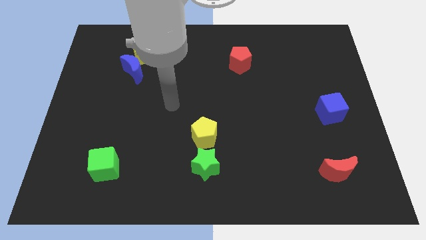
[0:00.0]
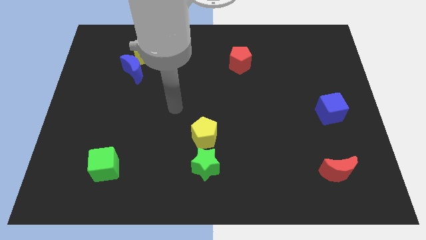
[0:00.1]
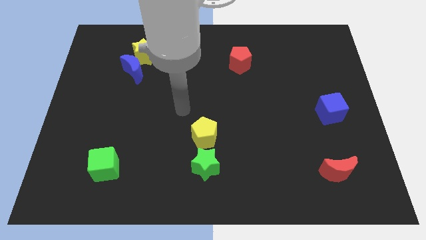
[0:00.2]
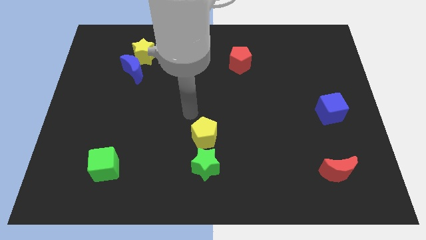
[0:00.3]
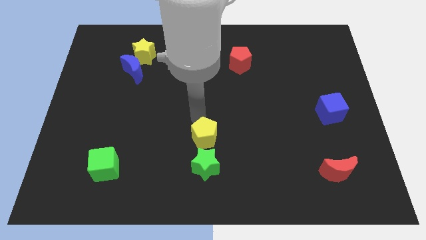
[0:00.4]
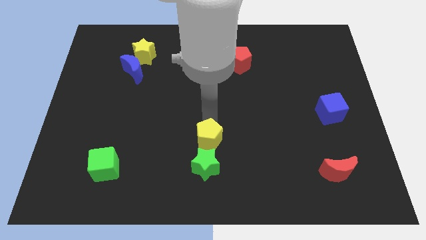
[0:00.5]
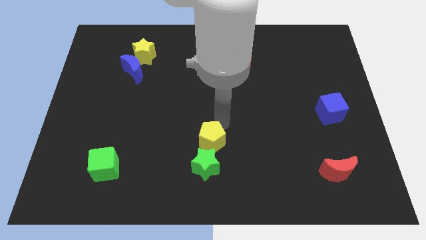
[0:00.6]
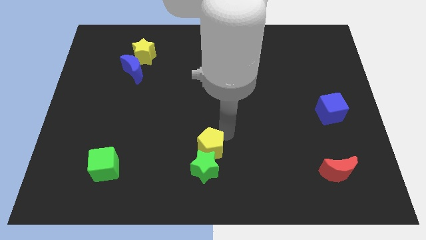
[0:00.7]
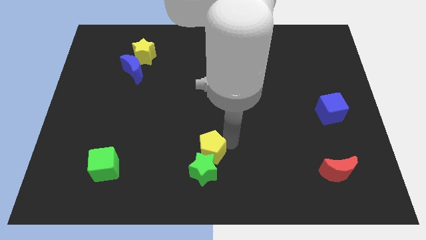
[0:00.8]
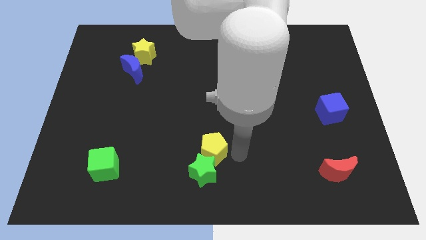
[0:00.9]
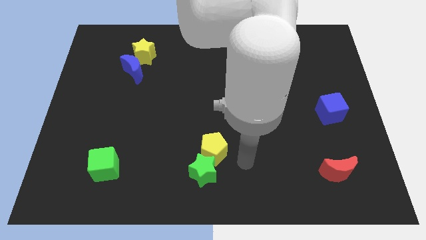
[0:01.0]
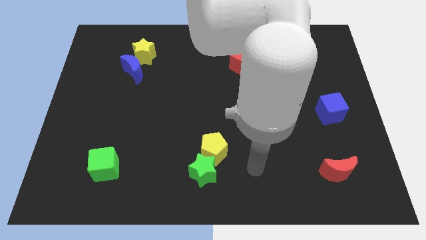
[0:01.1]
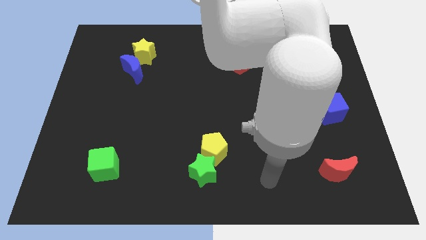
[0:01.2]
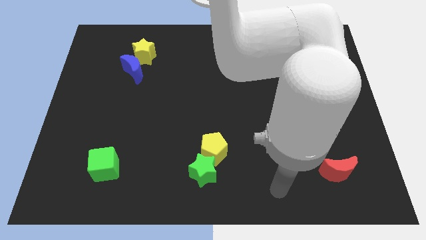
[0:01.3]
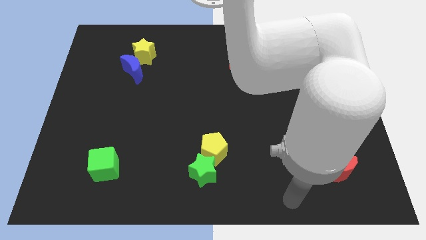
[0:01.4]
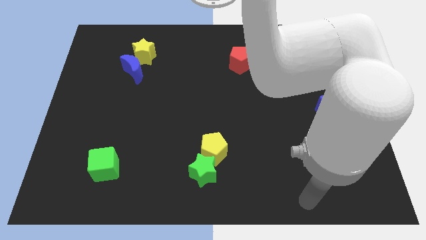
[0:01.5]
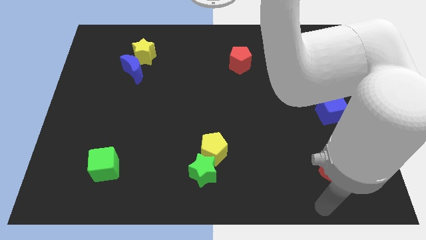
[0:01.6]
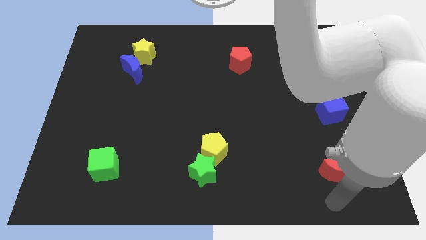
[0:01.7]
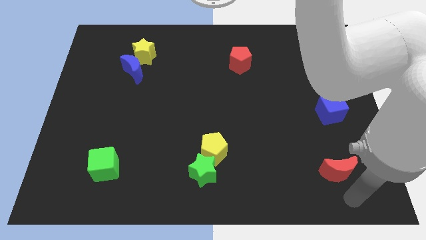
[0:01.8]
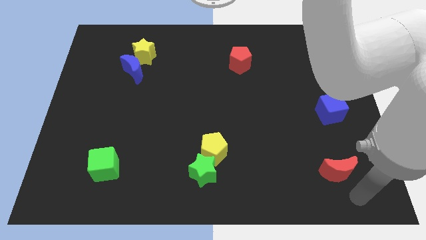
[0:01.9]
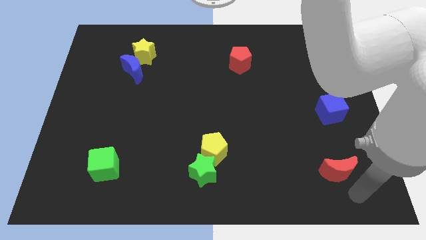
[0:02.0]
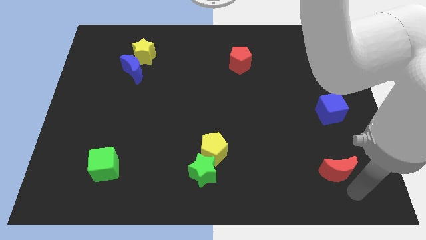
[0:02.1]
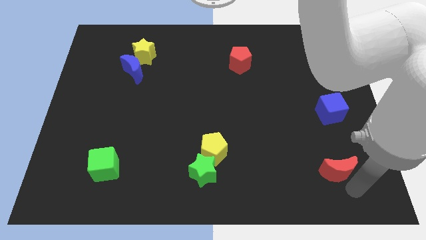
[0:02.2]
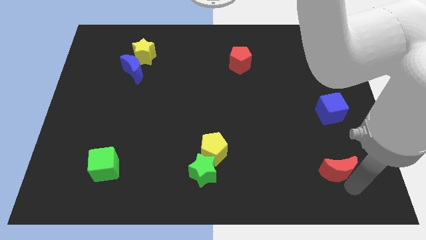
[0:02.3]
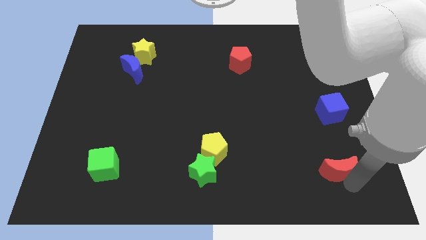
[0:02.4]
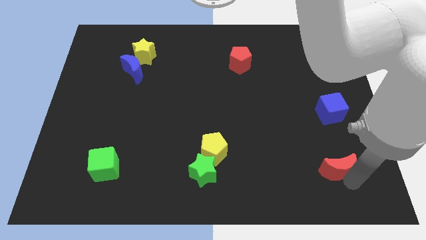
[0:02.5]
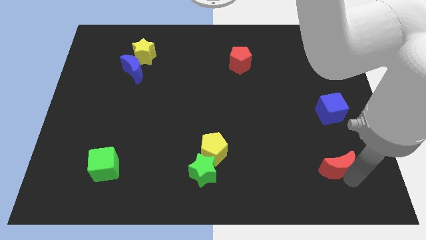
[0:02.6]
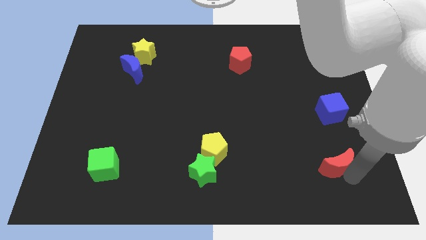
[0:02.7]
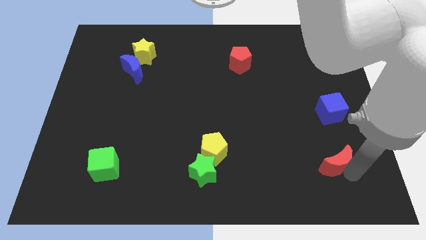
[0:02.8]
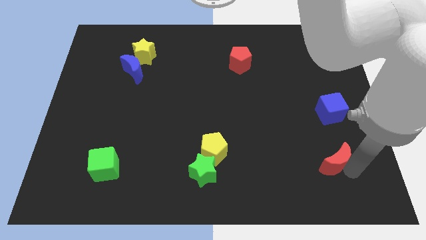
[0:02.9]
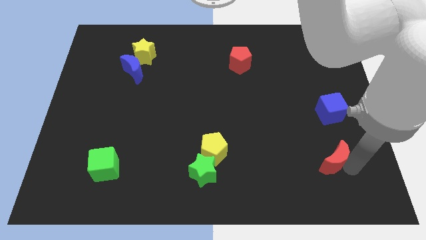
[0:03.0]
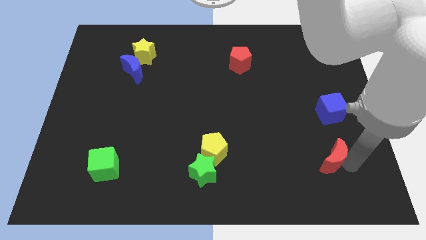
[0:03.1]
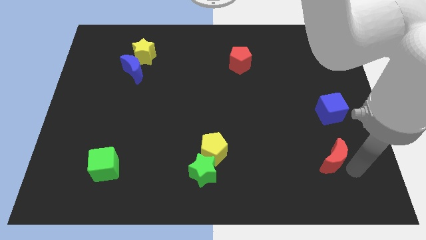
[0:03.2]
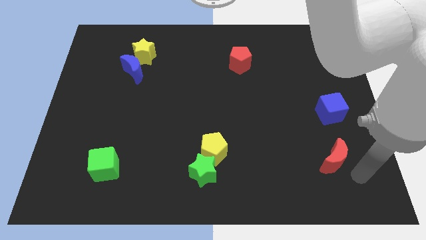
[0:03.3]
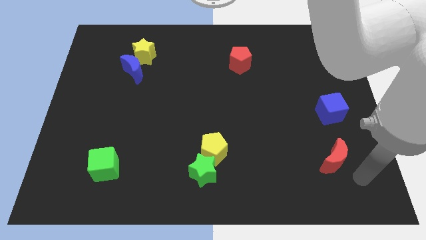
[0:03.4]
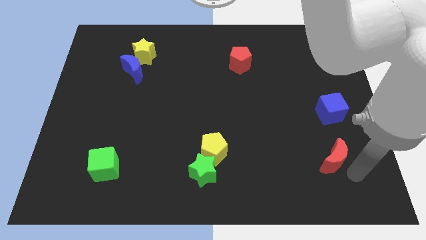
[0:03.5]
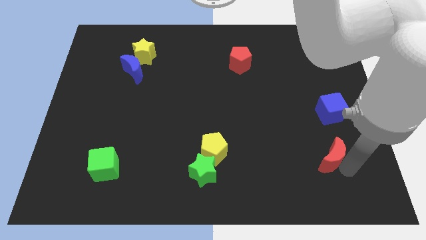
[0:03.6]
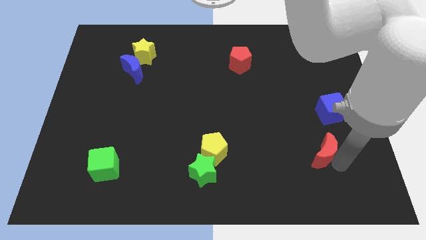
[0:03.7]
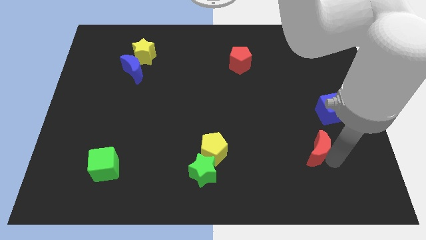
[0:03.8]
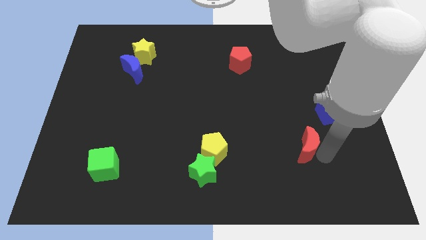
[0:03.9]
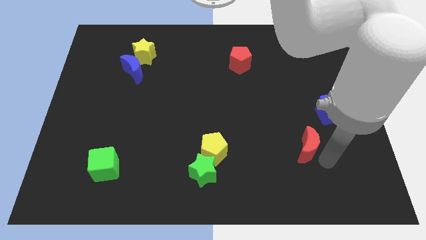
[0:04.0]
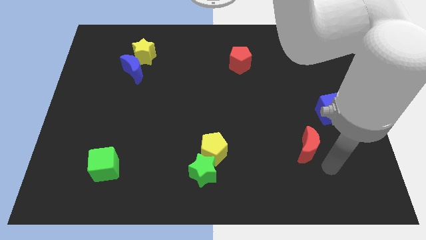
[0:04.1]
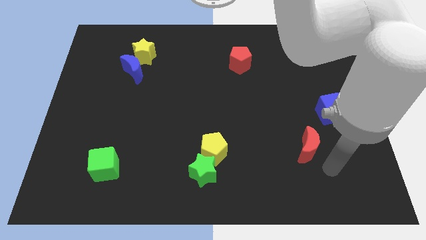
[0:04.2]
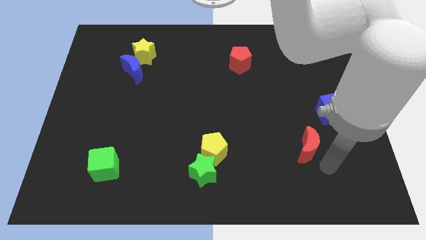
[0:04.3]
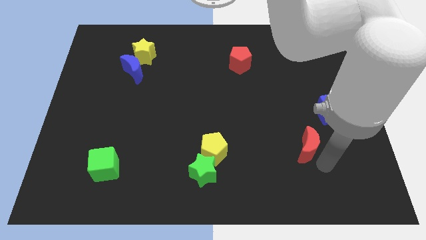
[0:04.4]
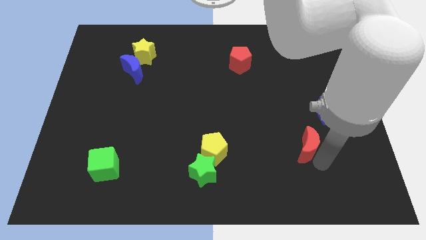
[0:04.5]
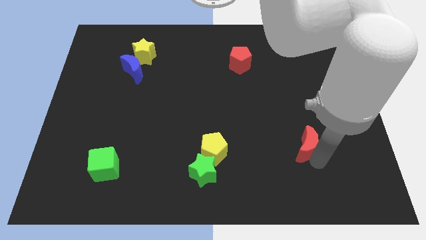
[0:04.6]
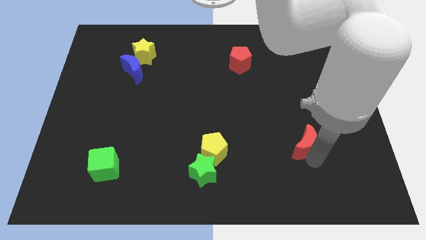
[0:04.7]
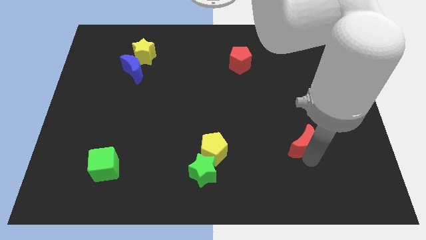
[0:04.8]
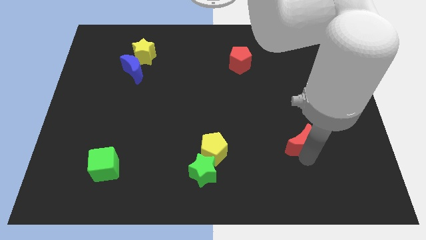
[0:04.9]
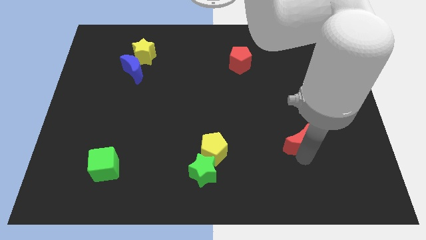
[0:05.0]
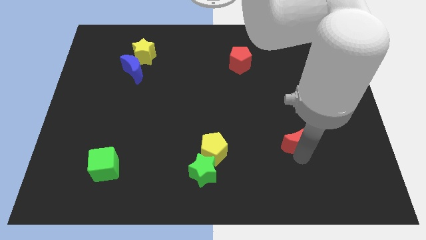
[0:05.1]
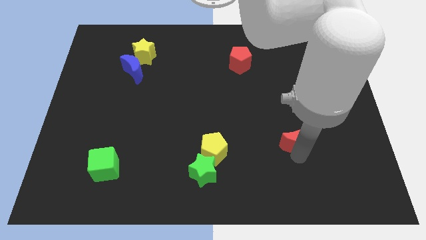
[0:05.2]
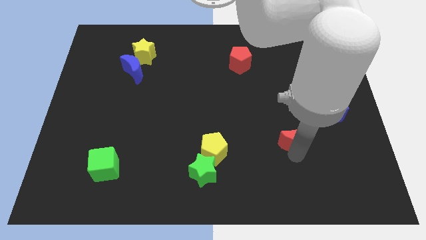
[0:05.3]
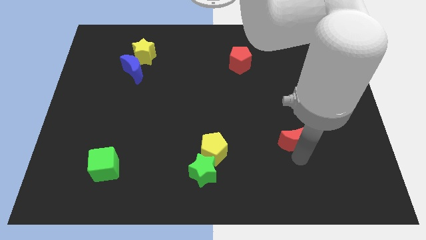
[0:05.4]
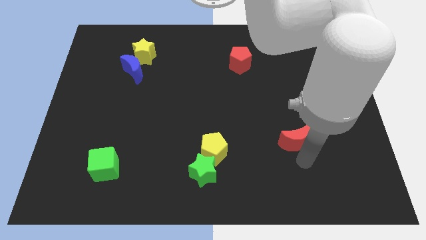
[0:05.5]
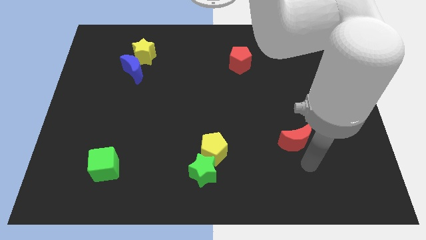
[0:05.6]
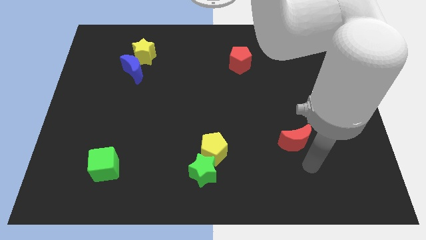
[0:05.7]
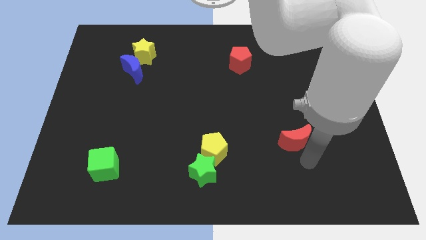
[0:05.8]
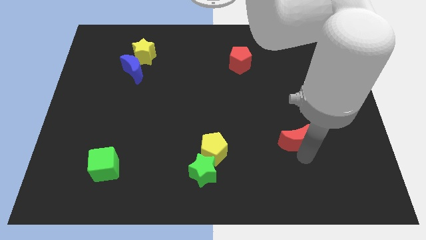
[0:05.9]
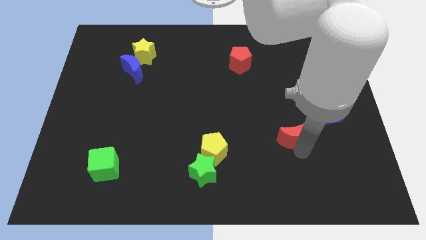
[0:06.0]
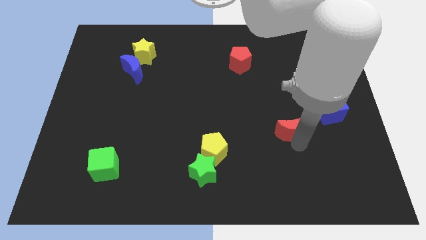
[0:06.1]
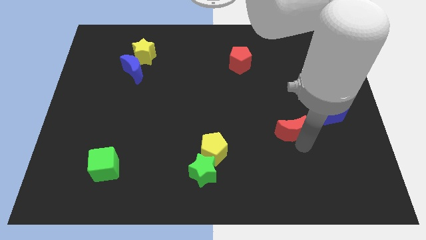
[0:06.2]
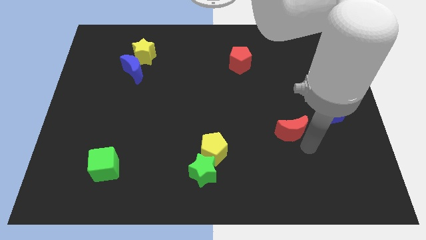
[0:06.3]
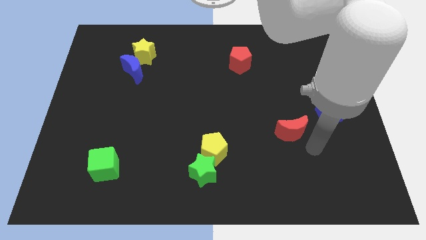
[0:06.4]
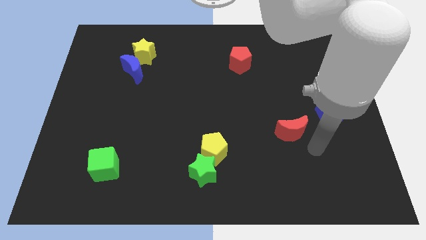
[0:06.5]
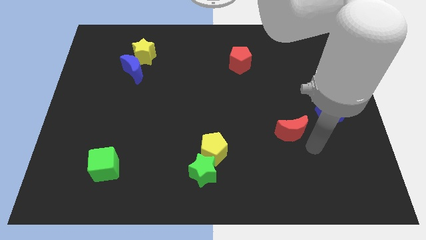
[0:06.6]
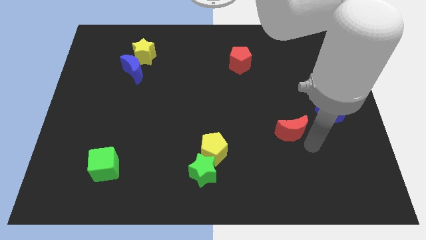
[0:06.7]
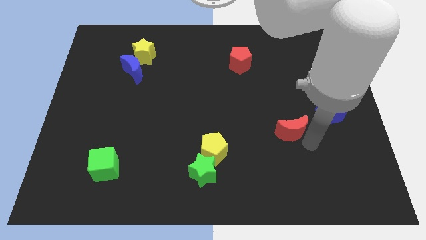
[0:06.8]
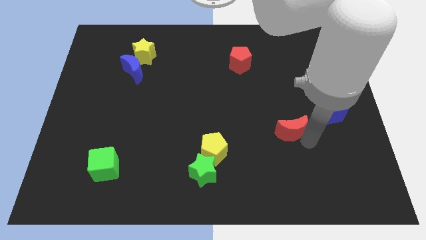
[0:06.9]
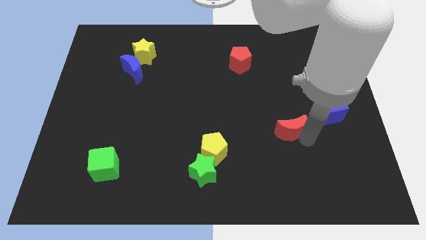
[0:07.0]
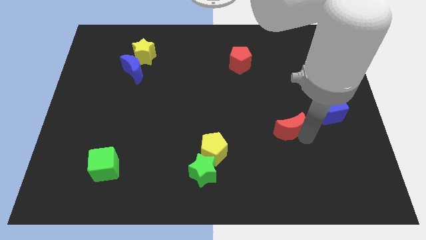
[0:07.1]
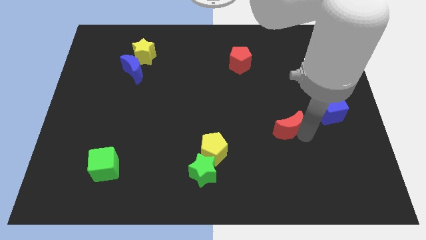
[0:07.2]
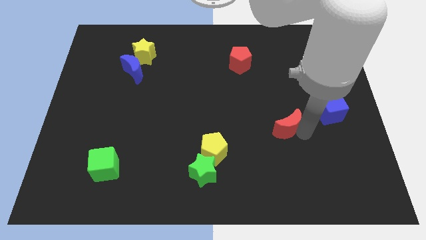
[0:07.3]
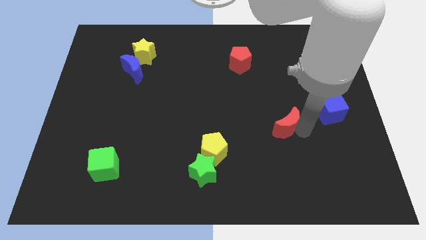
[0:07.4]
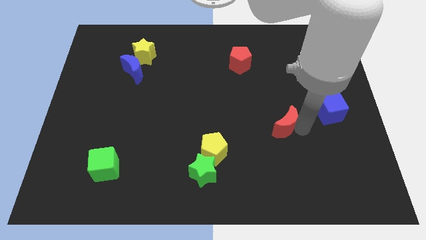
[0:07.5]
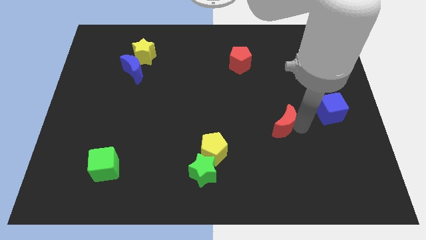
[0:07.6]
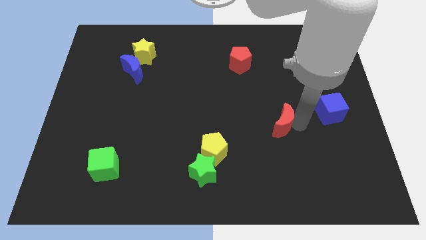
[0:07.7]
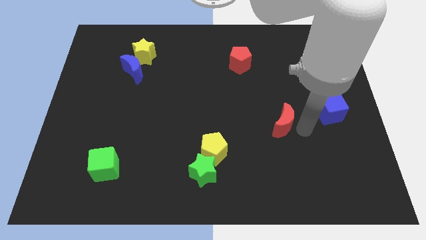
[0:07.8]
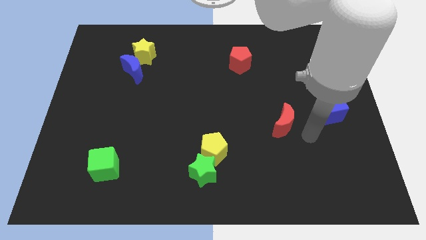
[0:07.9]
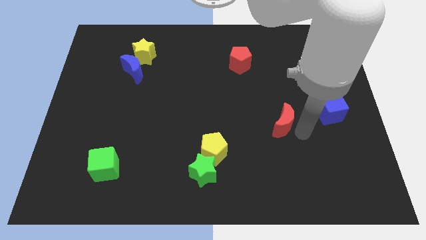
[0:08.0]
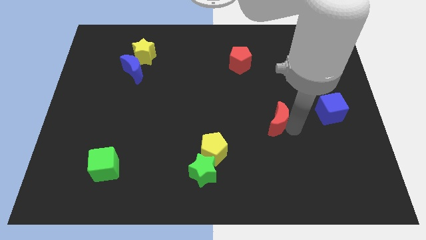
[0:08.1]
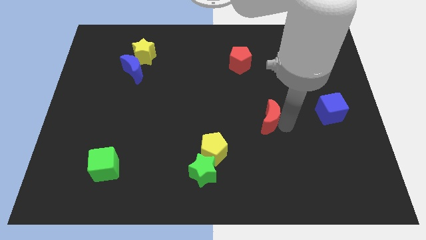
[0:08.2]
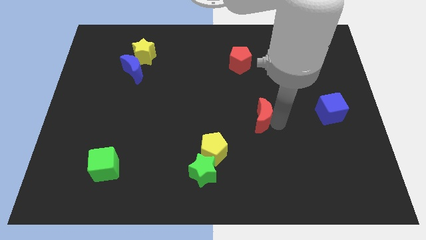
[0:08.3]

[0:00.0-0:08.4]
slide the red moon up and left diagonally
